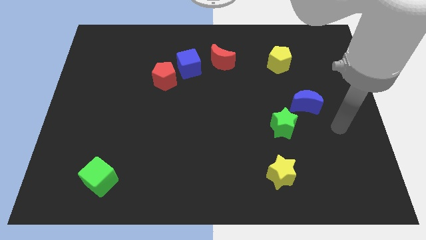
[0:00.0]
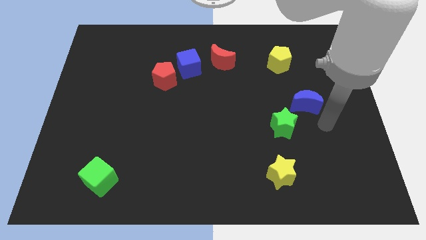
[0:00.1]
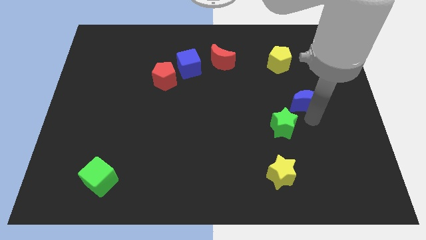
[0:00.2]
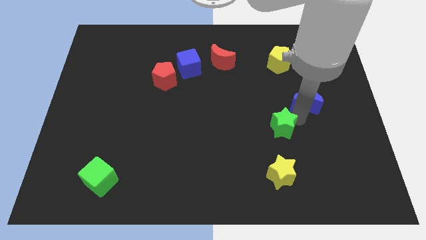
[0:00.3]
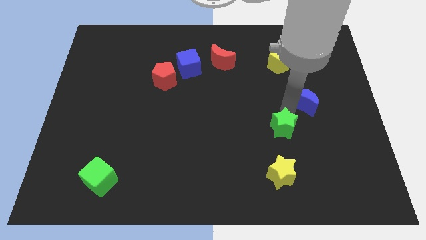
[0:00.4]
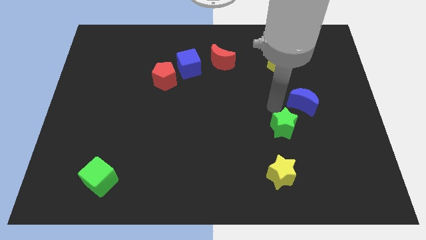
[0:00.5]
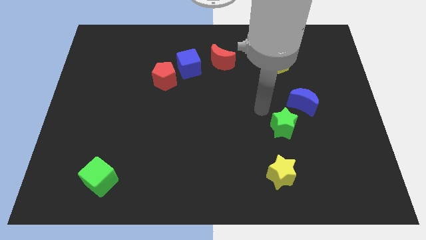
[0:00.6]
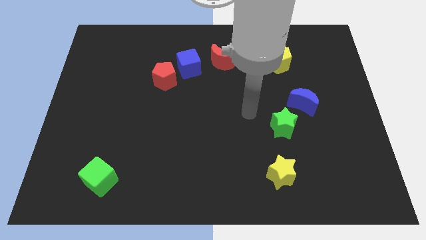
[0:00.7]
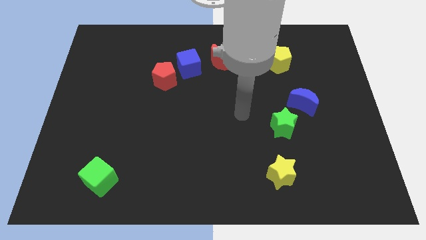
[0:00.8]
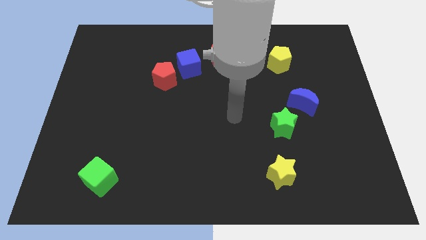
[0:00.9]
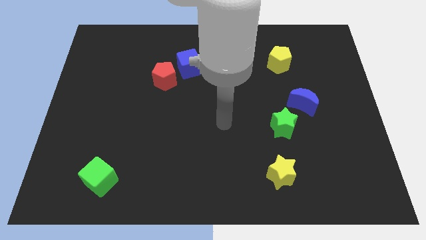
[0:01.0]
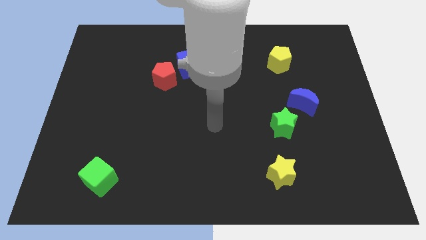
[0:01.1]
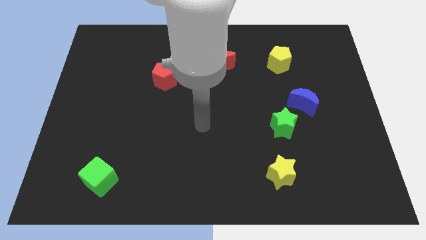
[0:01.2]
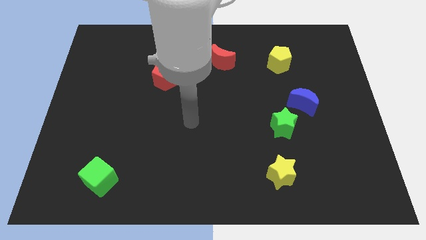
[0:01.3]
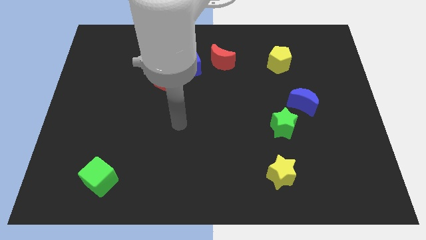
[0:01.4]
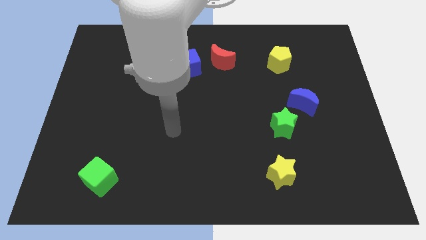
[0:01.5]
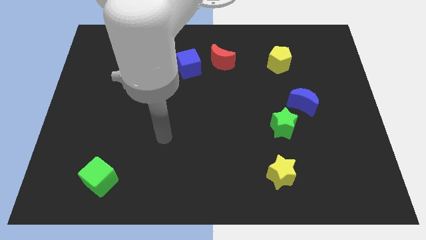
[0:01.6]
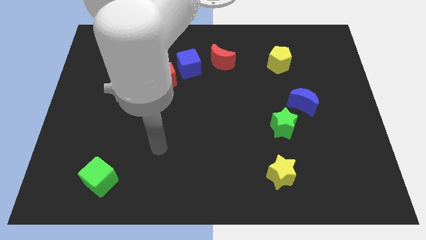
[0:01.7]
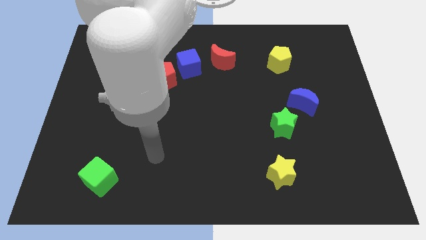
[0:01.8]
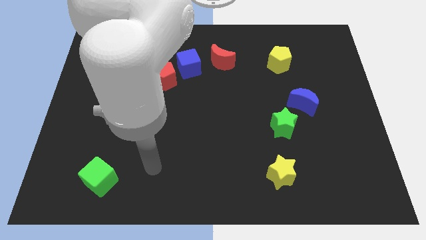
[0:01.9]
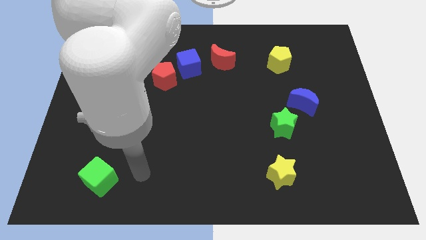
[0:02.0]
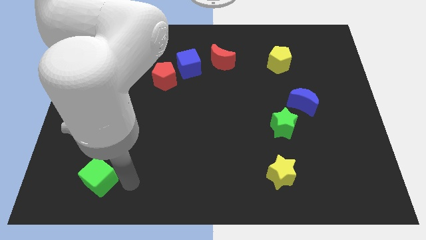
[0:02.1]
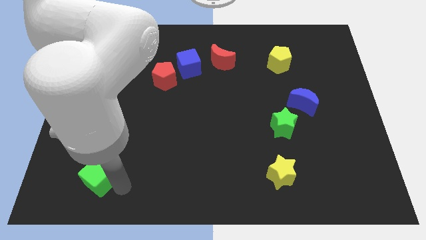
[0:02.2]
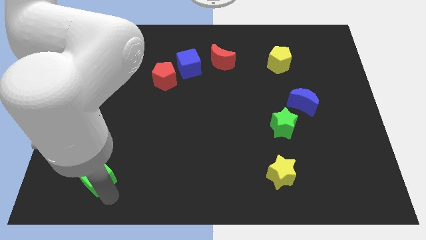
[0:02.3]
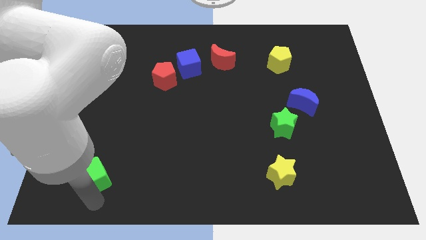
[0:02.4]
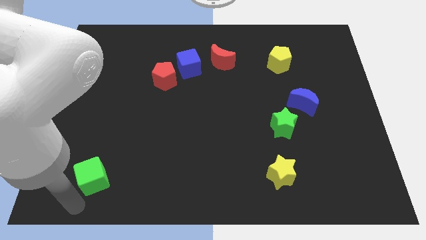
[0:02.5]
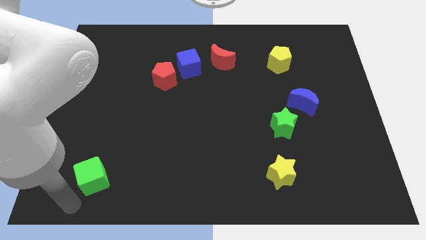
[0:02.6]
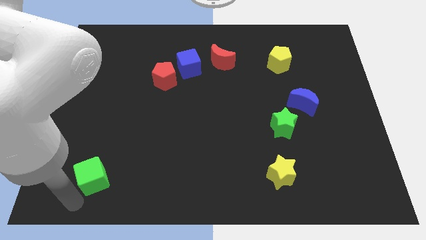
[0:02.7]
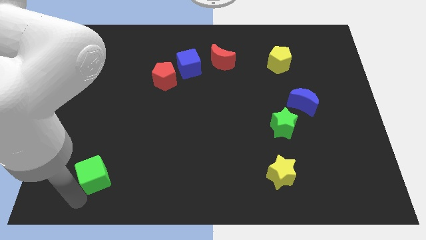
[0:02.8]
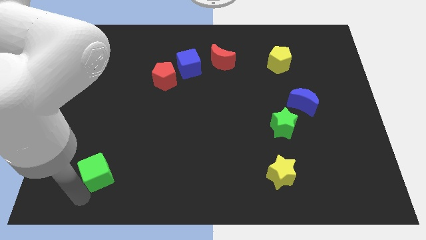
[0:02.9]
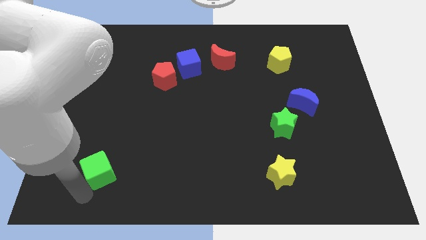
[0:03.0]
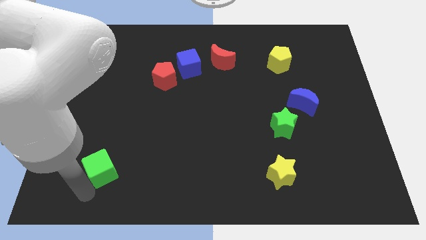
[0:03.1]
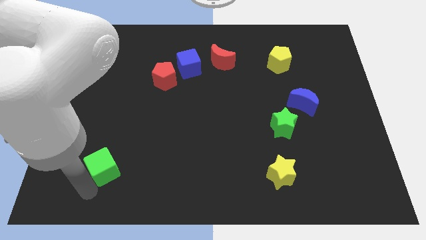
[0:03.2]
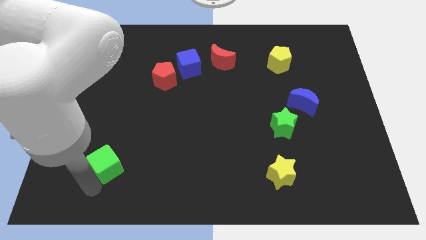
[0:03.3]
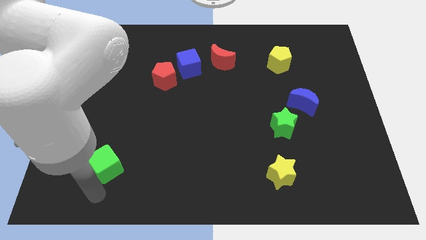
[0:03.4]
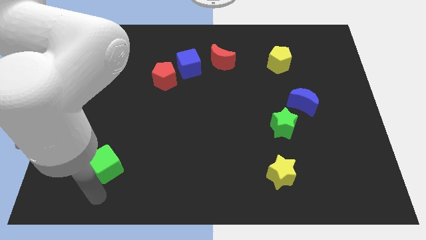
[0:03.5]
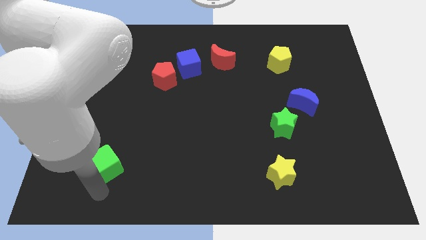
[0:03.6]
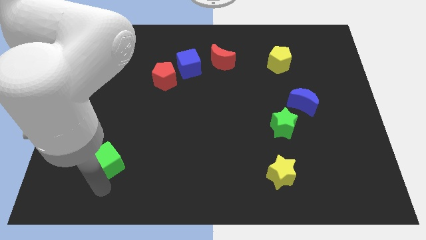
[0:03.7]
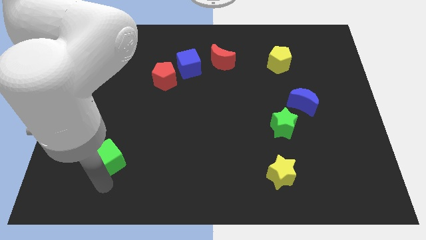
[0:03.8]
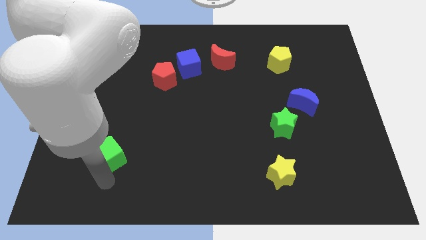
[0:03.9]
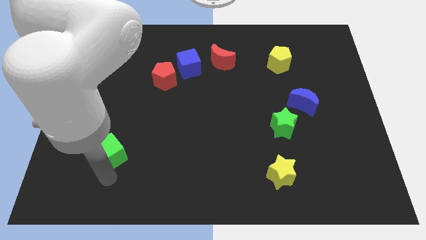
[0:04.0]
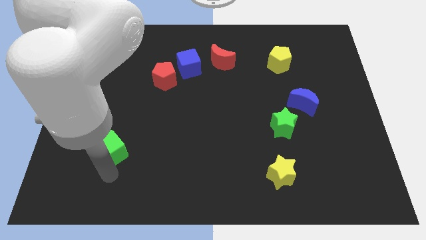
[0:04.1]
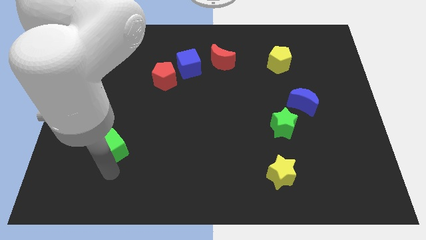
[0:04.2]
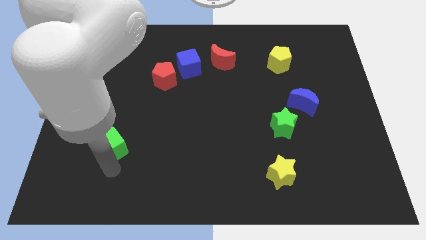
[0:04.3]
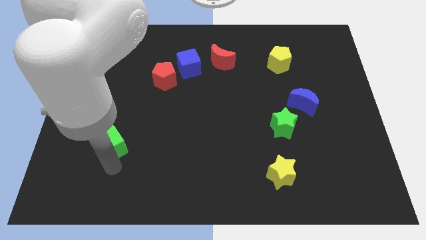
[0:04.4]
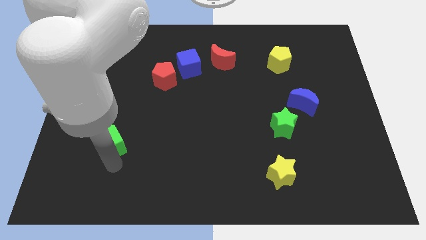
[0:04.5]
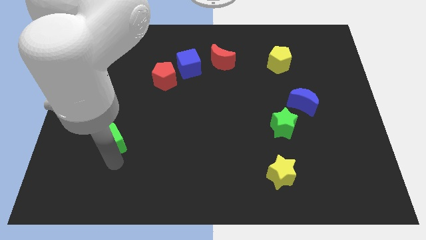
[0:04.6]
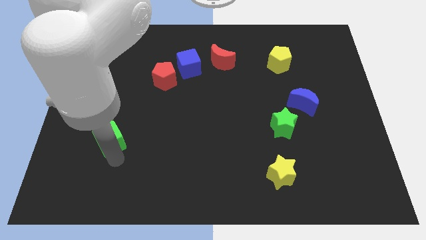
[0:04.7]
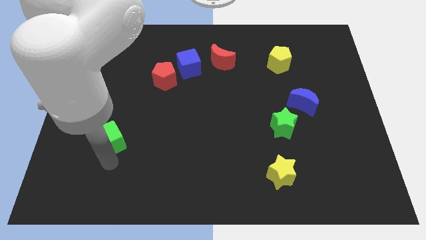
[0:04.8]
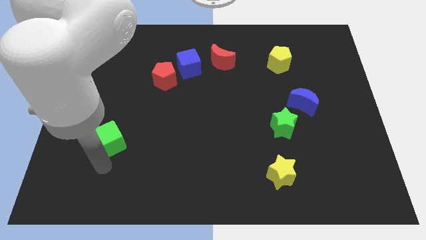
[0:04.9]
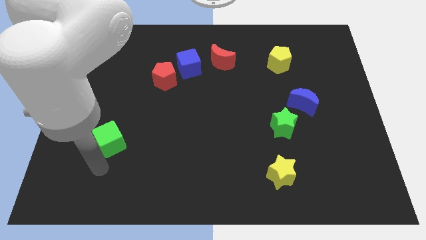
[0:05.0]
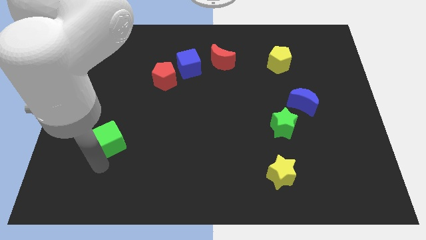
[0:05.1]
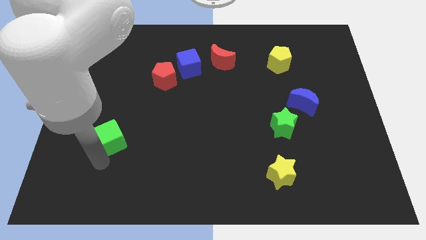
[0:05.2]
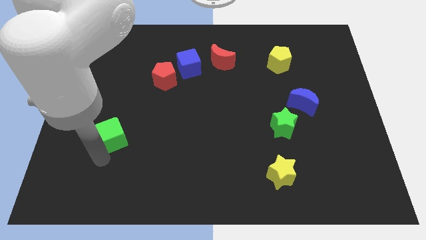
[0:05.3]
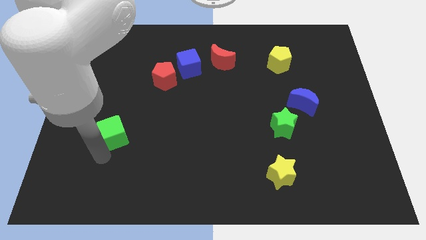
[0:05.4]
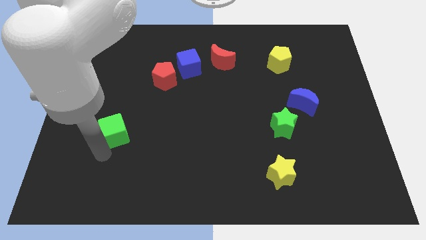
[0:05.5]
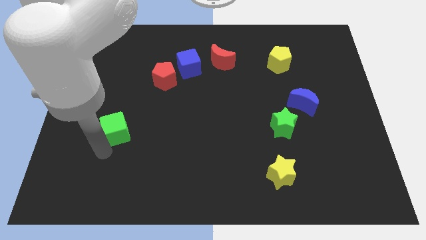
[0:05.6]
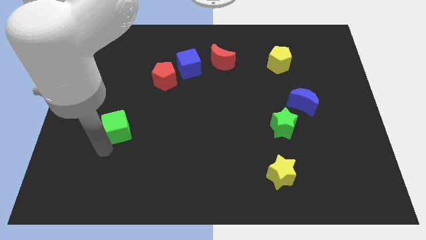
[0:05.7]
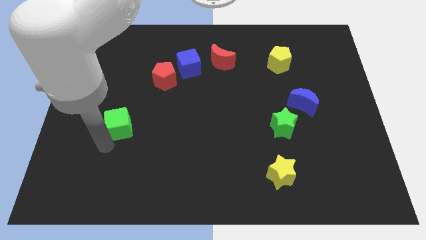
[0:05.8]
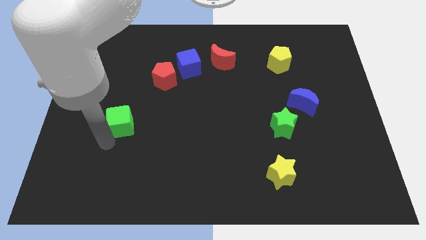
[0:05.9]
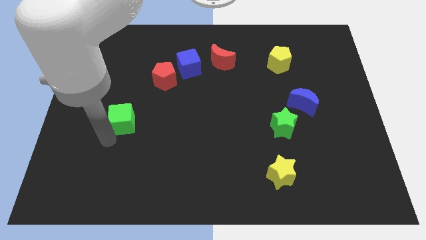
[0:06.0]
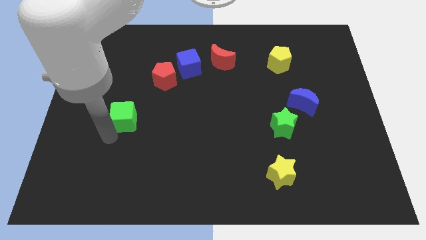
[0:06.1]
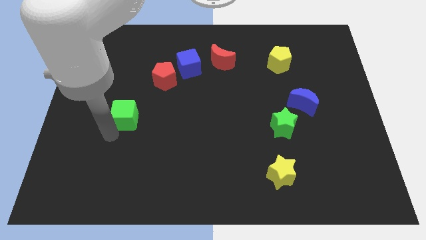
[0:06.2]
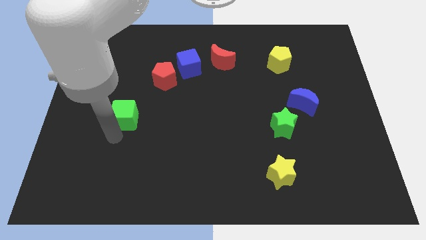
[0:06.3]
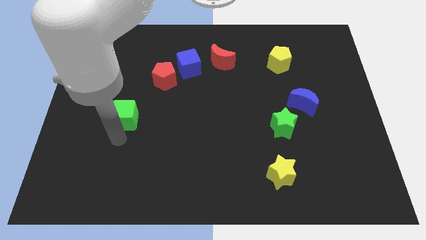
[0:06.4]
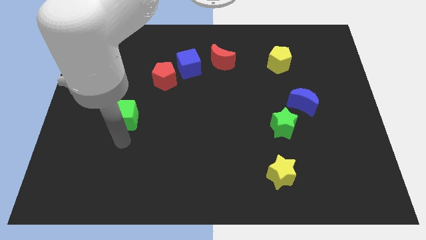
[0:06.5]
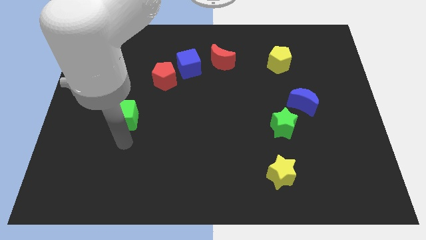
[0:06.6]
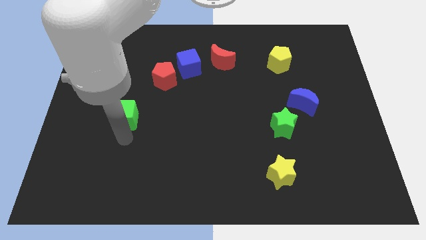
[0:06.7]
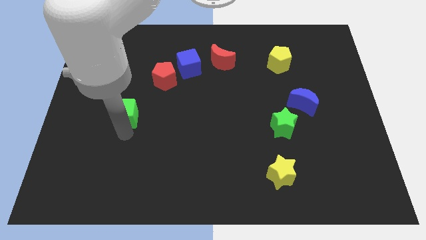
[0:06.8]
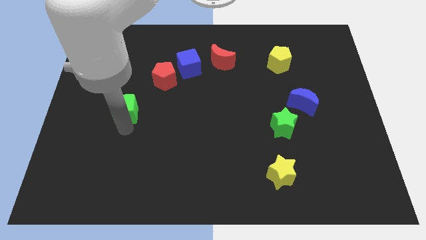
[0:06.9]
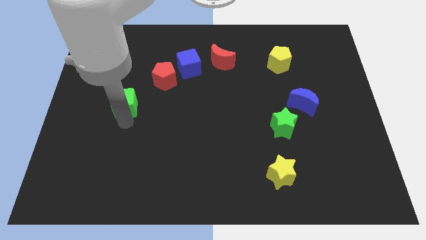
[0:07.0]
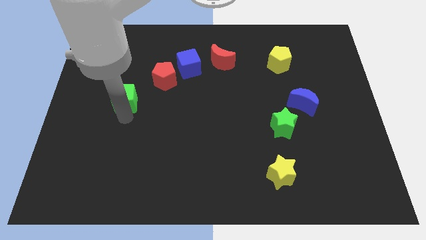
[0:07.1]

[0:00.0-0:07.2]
push the green cube up

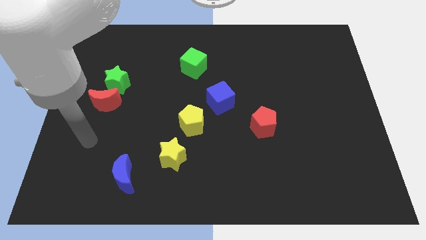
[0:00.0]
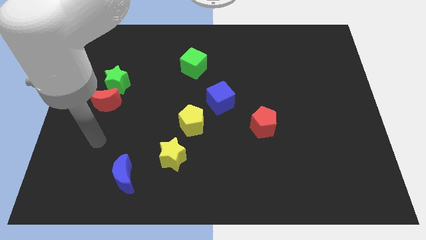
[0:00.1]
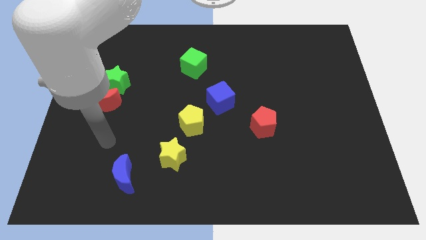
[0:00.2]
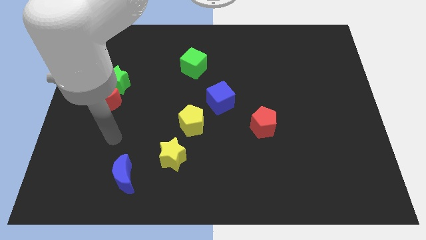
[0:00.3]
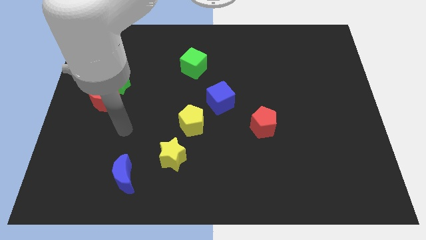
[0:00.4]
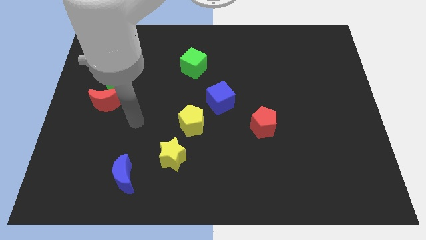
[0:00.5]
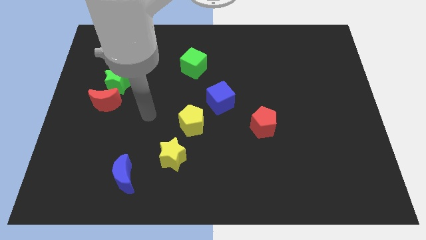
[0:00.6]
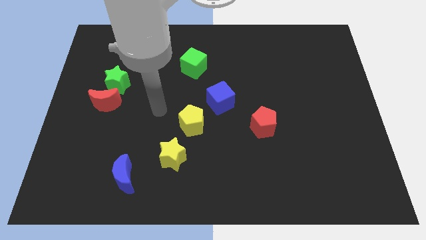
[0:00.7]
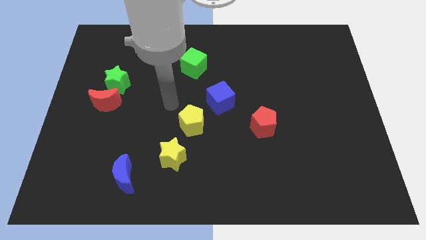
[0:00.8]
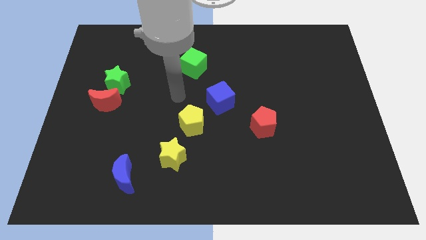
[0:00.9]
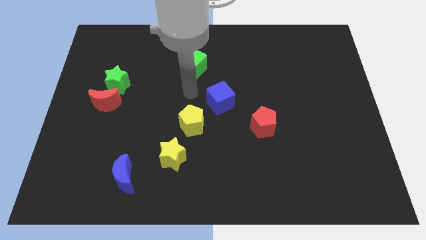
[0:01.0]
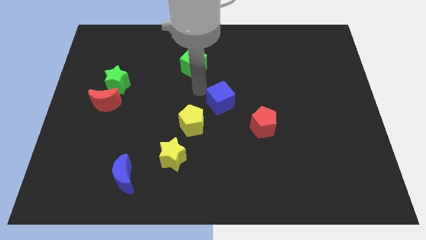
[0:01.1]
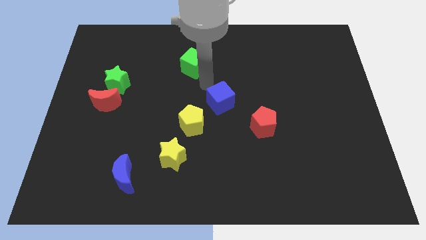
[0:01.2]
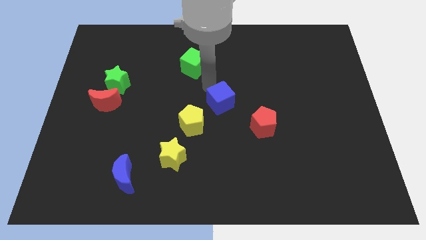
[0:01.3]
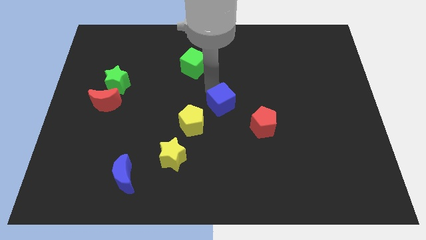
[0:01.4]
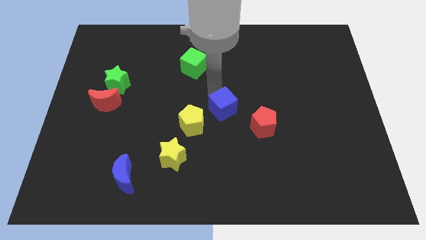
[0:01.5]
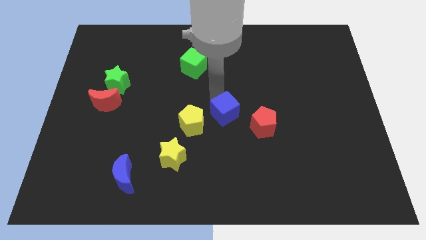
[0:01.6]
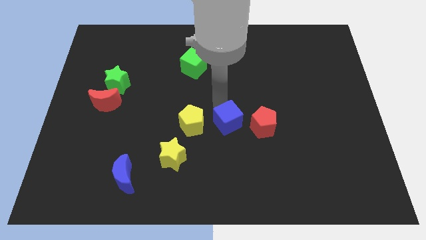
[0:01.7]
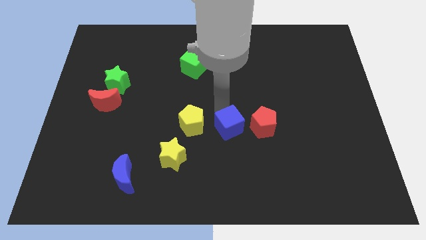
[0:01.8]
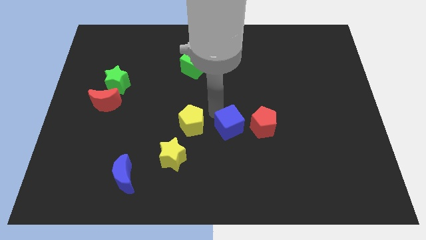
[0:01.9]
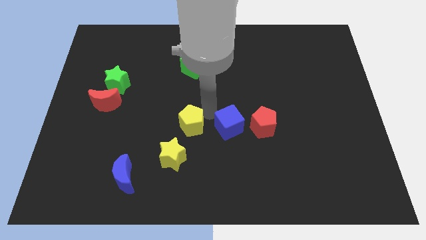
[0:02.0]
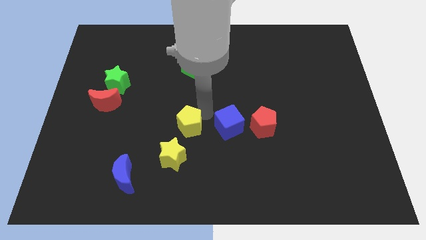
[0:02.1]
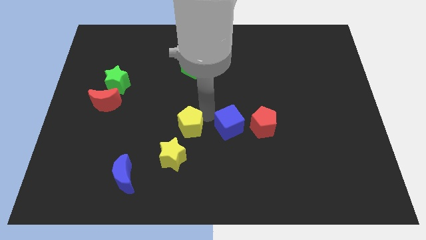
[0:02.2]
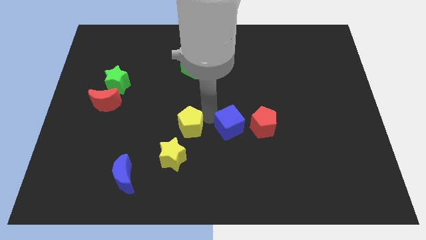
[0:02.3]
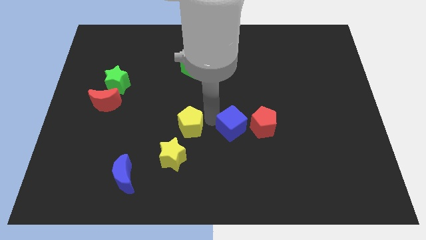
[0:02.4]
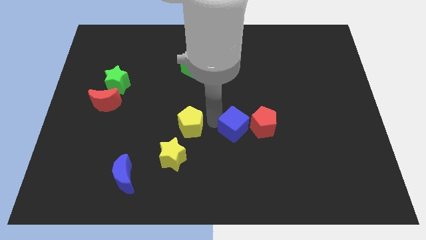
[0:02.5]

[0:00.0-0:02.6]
slide the blue cube down and to the right diagonally a little
